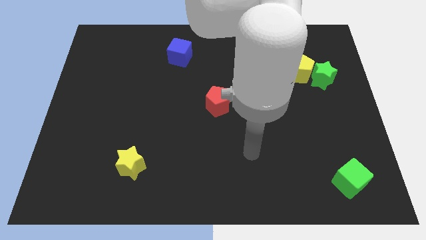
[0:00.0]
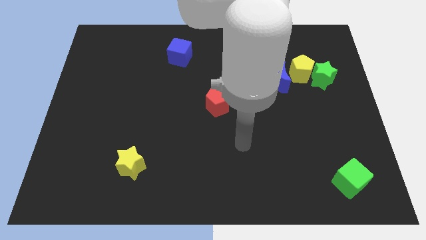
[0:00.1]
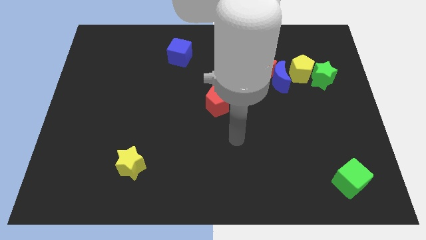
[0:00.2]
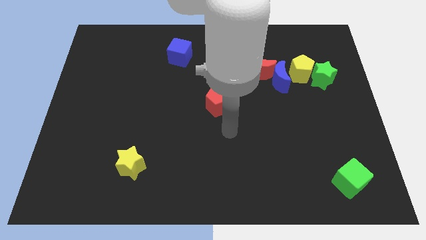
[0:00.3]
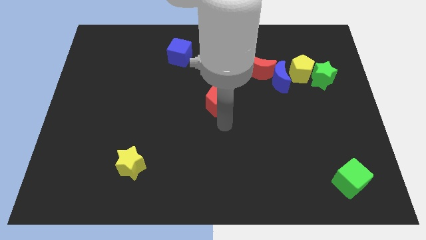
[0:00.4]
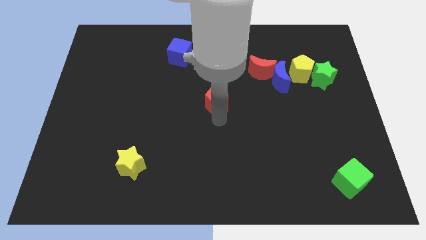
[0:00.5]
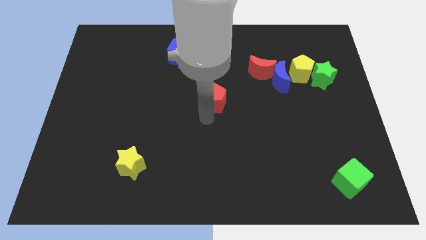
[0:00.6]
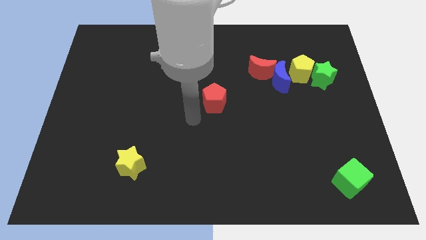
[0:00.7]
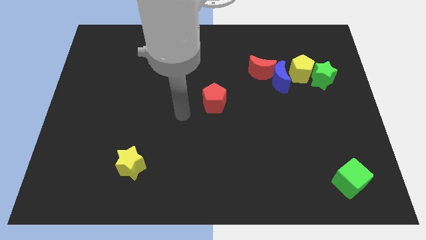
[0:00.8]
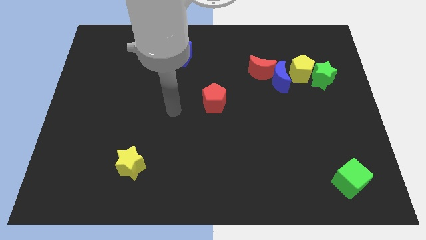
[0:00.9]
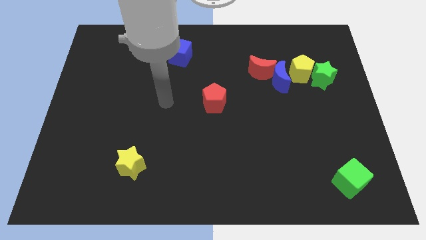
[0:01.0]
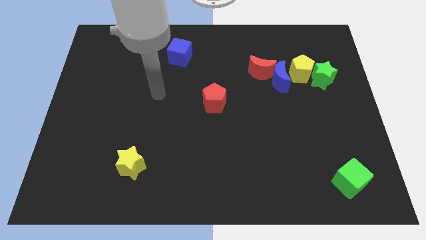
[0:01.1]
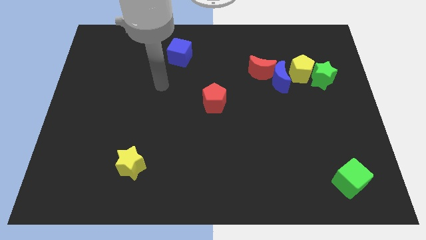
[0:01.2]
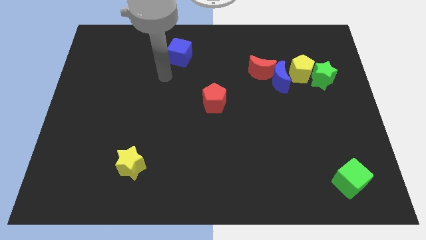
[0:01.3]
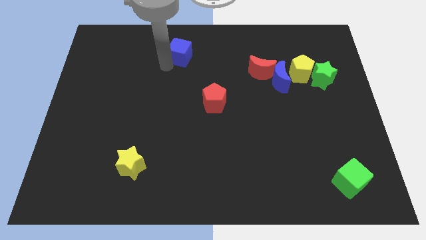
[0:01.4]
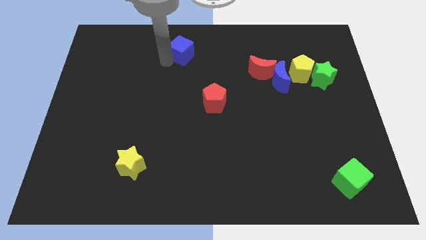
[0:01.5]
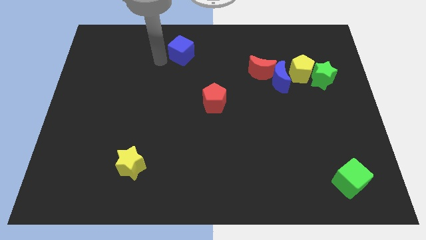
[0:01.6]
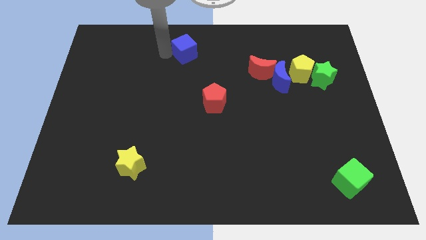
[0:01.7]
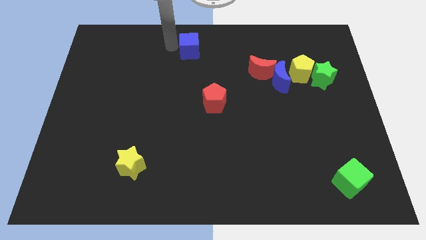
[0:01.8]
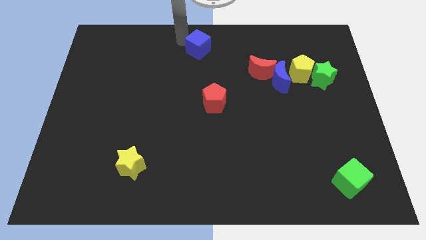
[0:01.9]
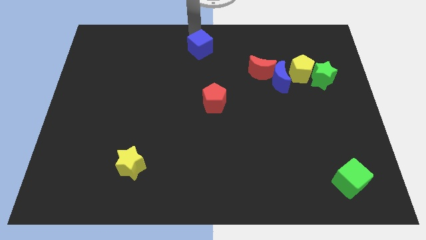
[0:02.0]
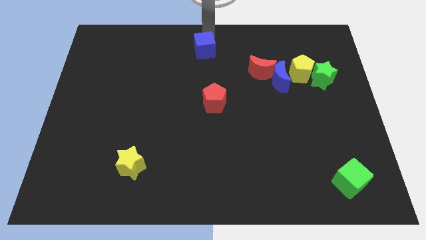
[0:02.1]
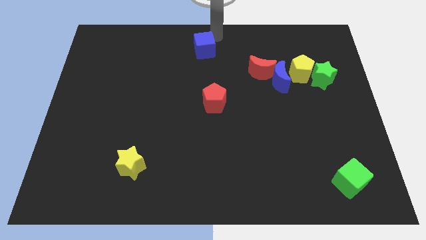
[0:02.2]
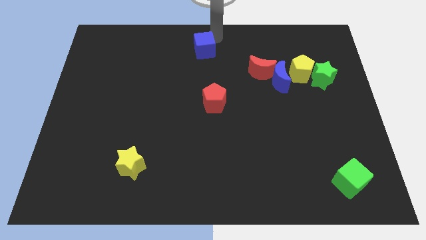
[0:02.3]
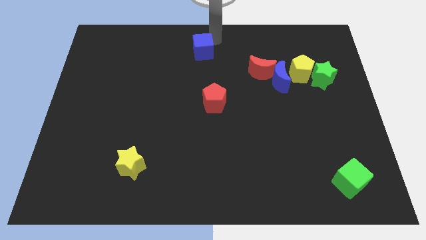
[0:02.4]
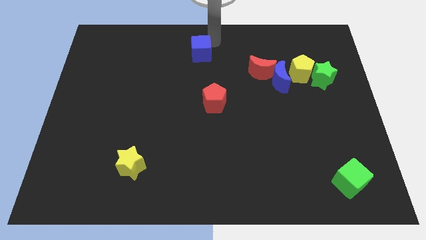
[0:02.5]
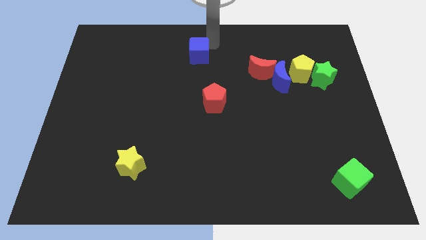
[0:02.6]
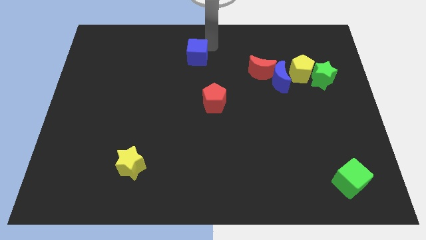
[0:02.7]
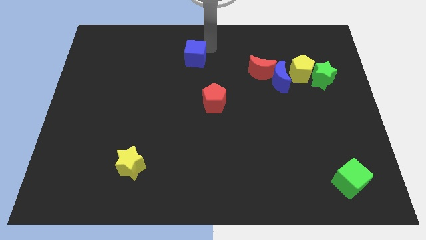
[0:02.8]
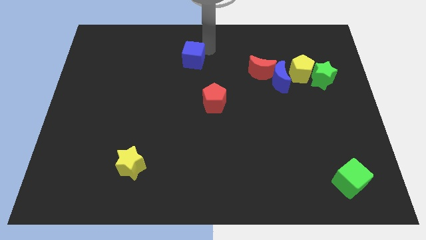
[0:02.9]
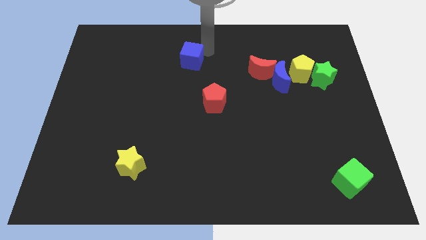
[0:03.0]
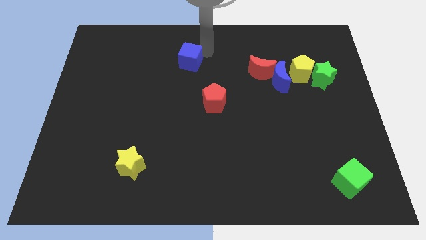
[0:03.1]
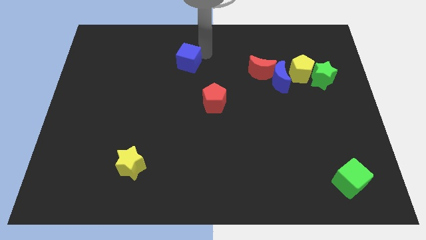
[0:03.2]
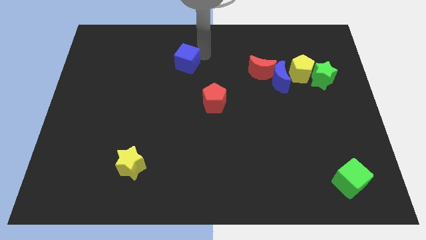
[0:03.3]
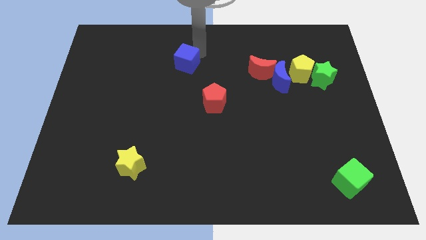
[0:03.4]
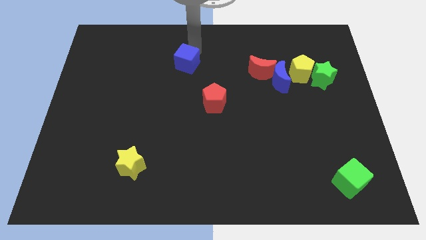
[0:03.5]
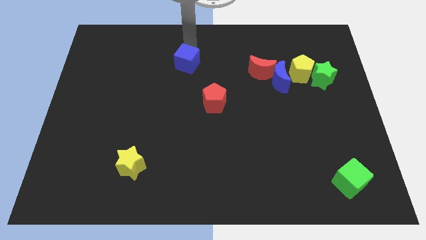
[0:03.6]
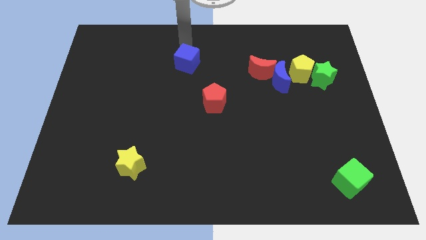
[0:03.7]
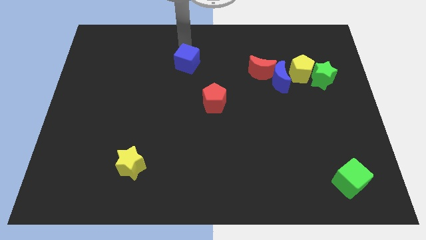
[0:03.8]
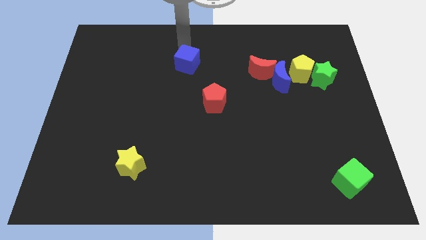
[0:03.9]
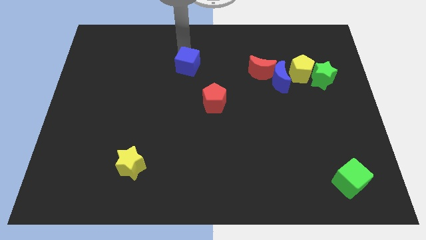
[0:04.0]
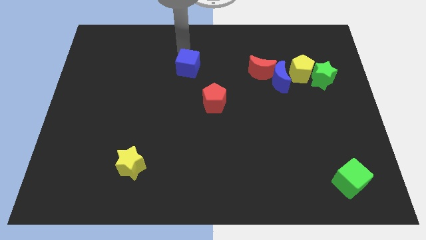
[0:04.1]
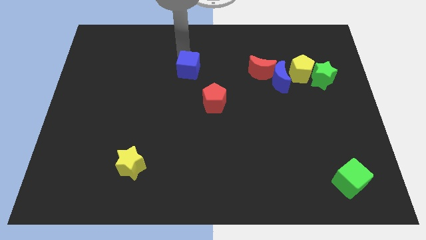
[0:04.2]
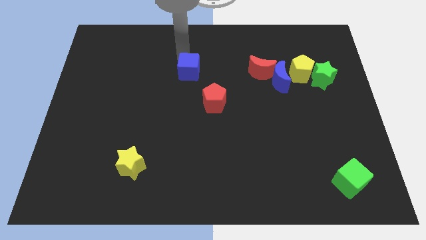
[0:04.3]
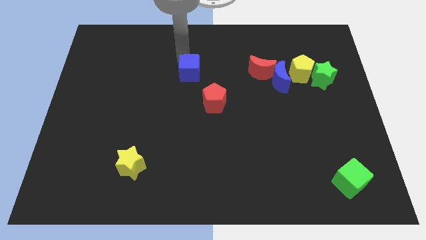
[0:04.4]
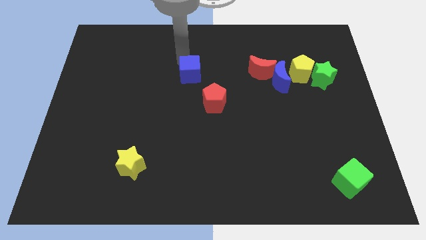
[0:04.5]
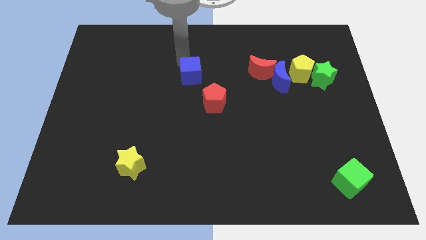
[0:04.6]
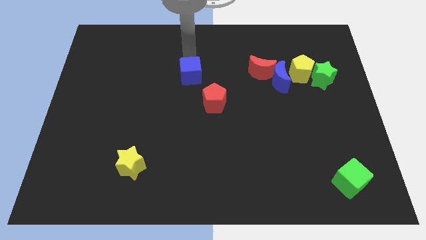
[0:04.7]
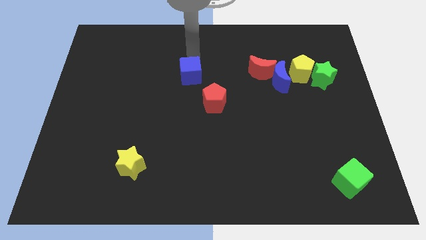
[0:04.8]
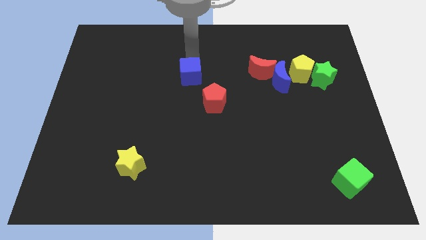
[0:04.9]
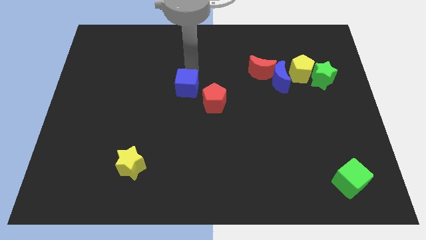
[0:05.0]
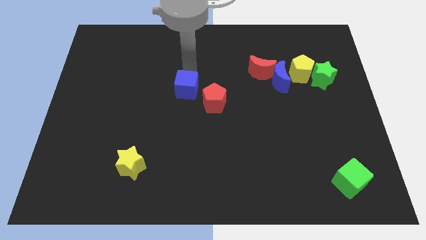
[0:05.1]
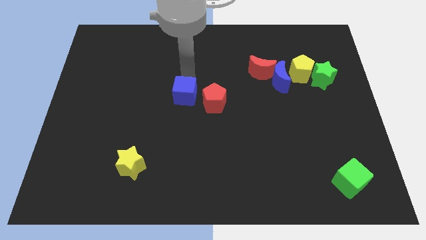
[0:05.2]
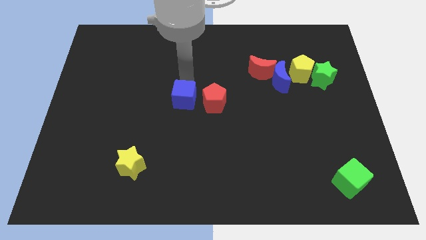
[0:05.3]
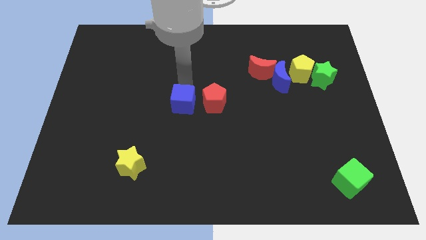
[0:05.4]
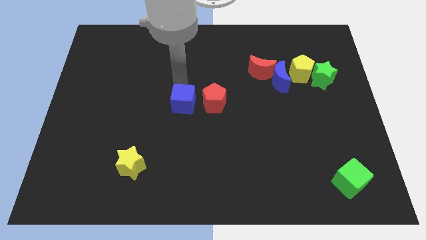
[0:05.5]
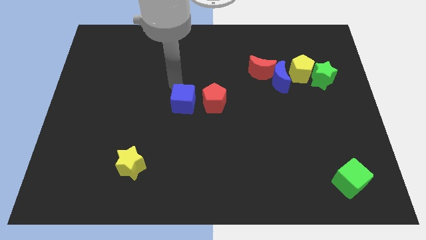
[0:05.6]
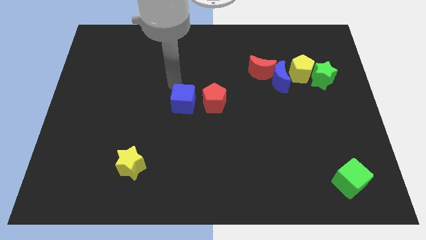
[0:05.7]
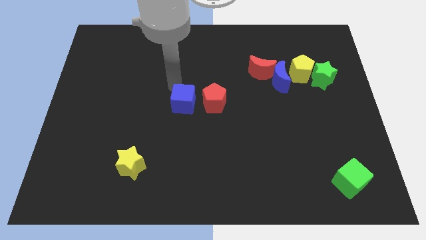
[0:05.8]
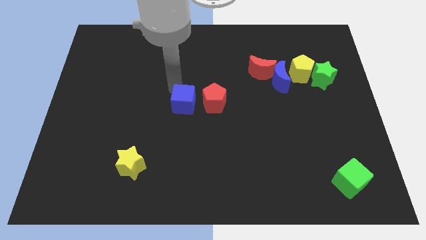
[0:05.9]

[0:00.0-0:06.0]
slide the blue cube to the bottom left side of the red pentagon

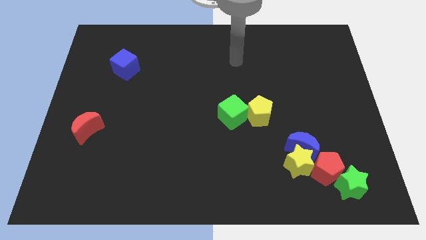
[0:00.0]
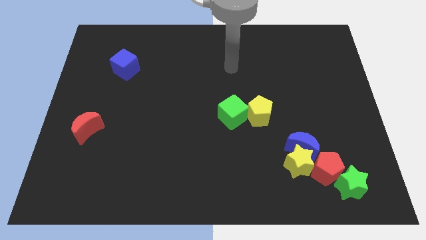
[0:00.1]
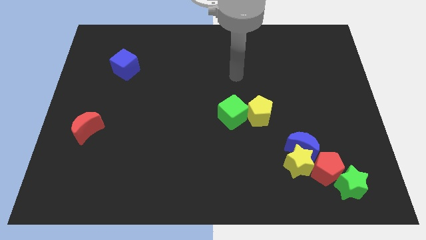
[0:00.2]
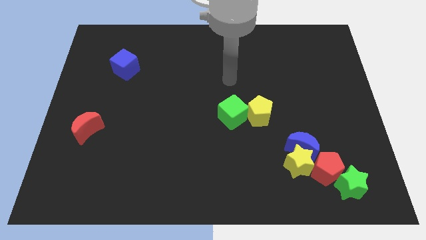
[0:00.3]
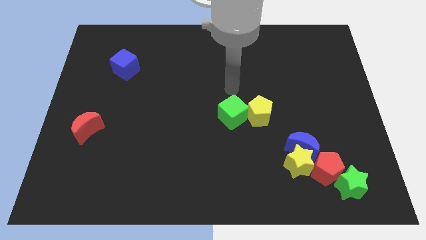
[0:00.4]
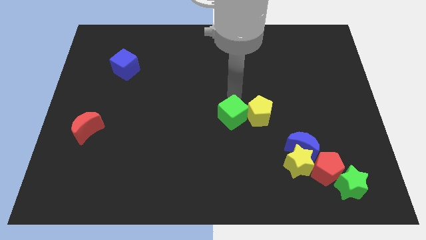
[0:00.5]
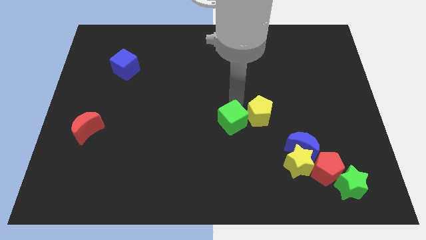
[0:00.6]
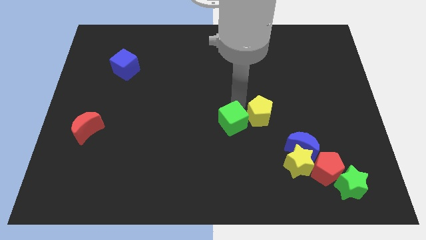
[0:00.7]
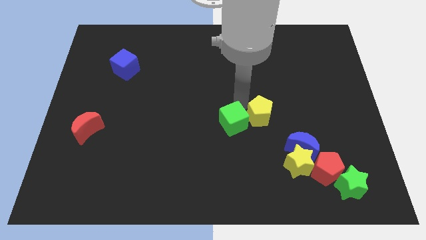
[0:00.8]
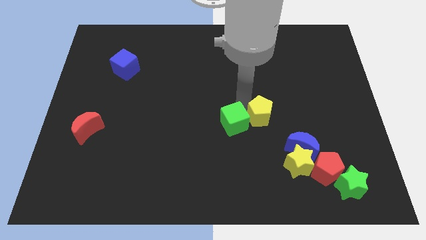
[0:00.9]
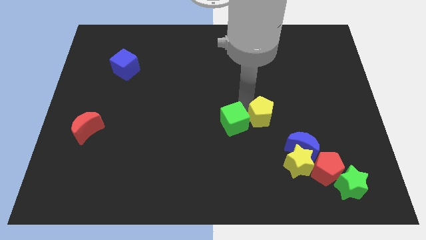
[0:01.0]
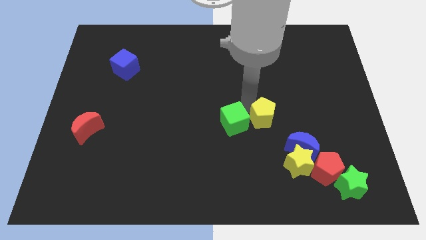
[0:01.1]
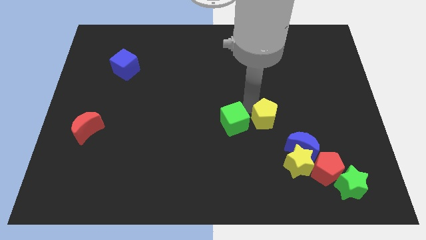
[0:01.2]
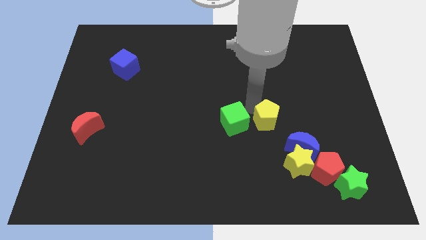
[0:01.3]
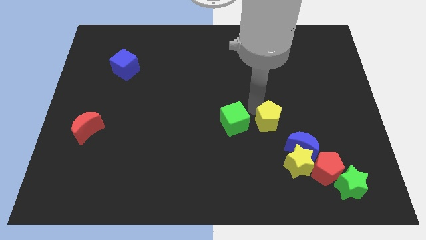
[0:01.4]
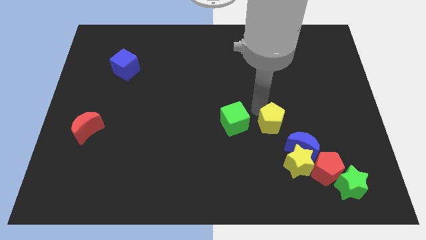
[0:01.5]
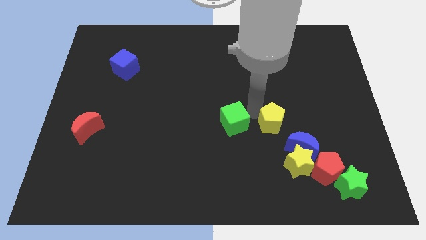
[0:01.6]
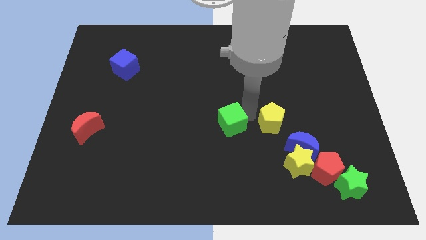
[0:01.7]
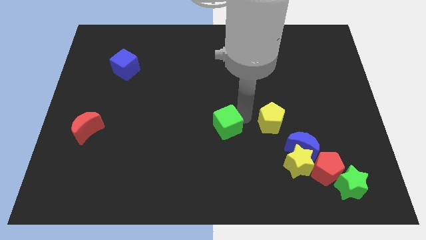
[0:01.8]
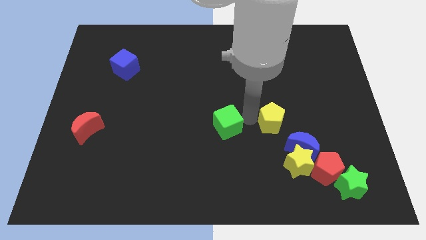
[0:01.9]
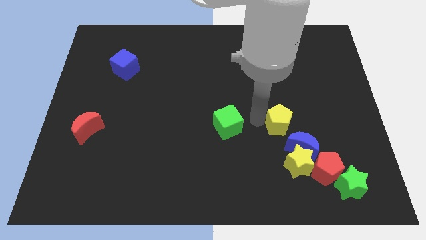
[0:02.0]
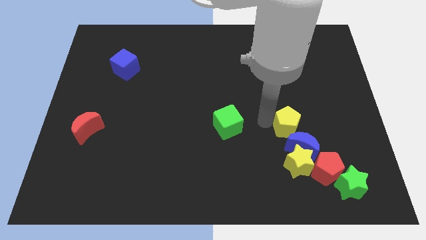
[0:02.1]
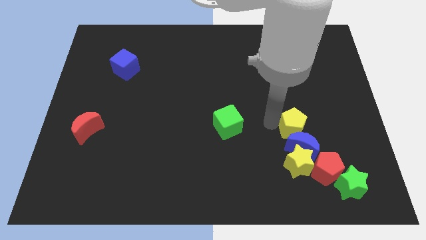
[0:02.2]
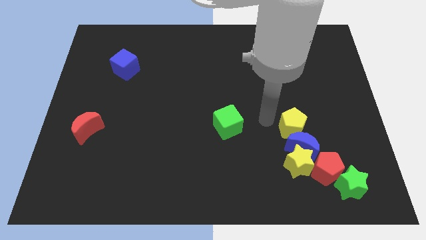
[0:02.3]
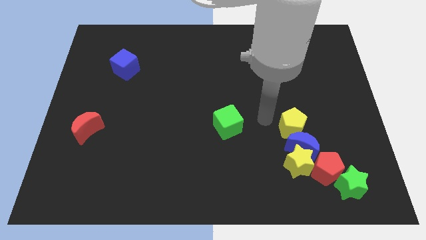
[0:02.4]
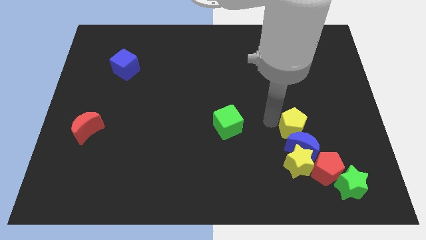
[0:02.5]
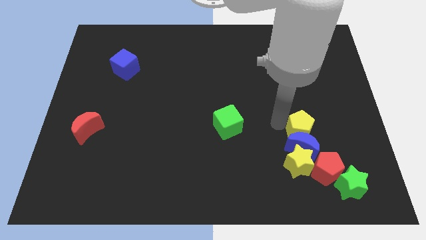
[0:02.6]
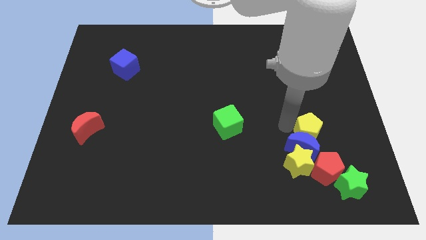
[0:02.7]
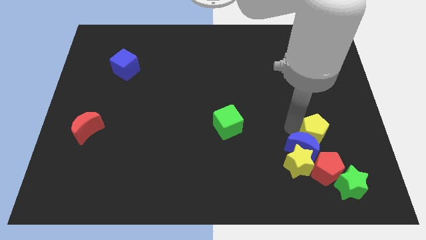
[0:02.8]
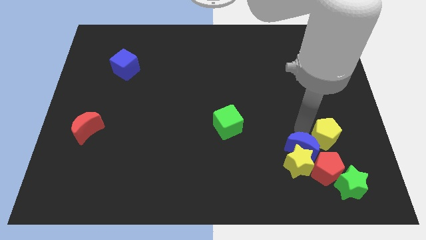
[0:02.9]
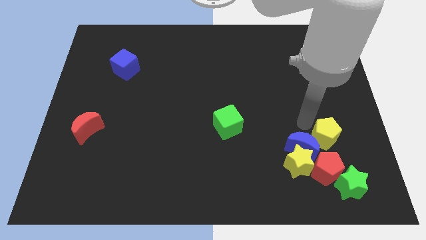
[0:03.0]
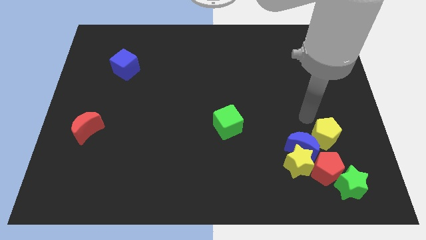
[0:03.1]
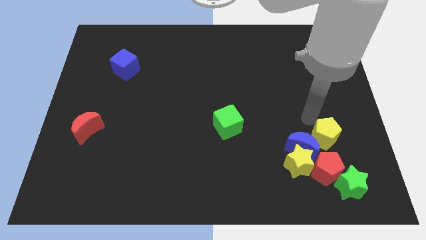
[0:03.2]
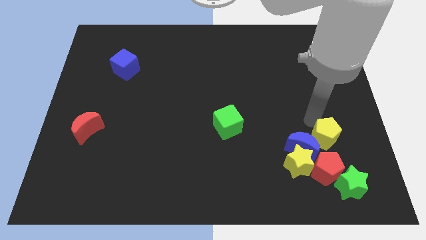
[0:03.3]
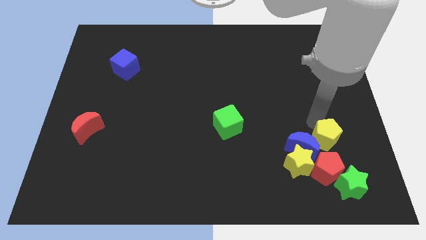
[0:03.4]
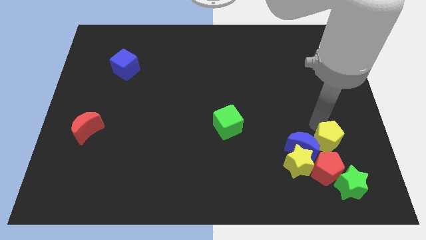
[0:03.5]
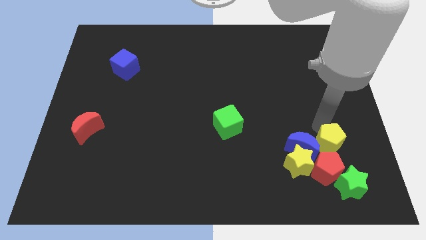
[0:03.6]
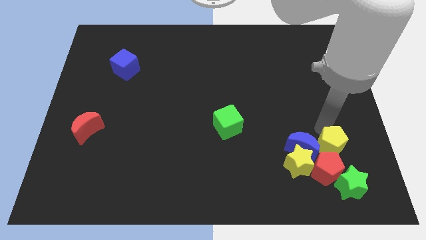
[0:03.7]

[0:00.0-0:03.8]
slide the yellow pentagon just right of the yellow star
